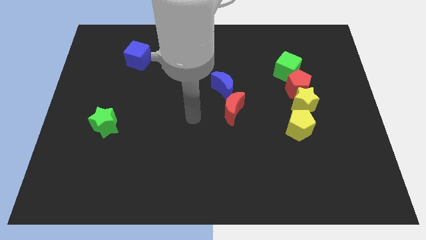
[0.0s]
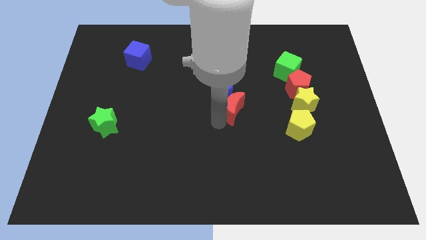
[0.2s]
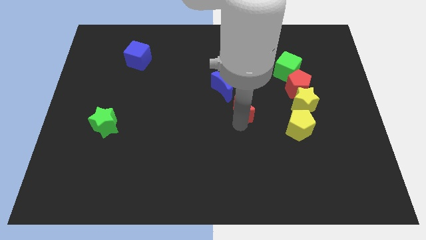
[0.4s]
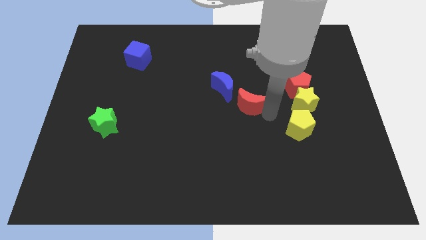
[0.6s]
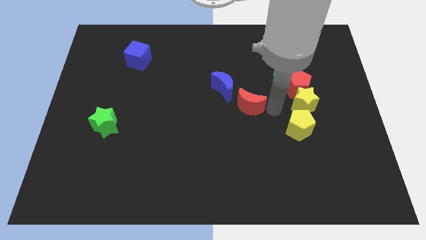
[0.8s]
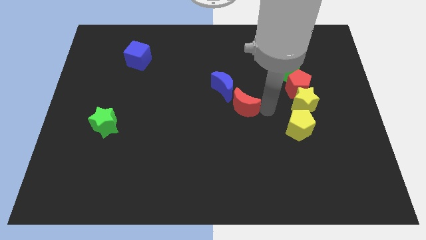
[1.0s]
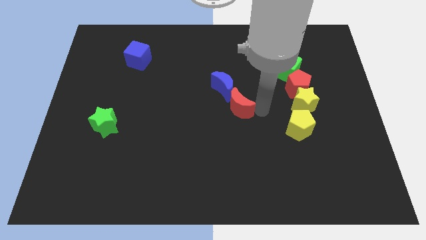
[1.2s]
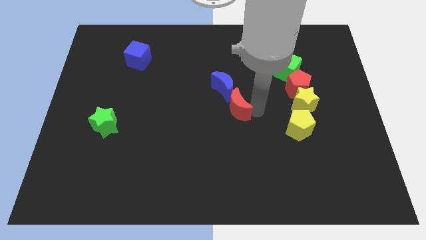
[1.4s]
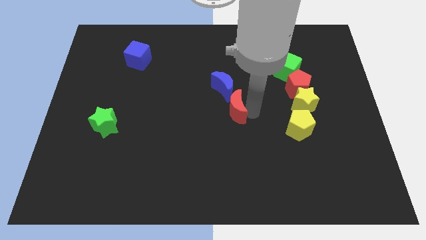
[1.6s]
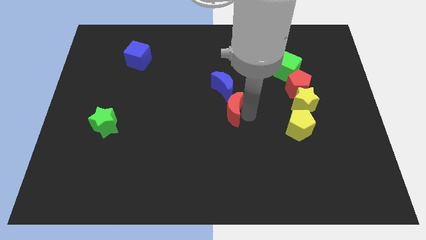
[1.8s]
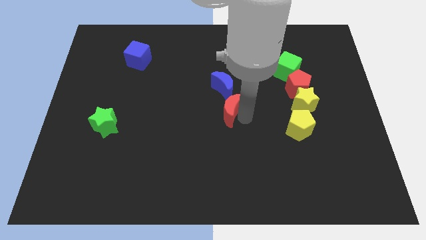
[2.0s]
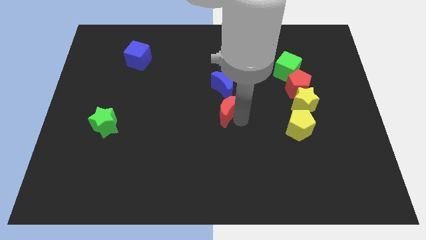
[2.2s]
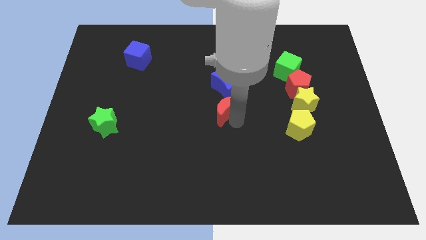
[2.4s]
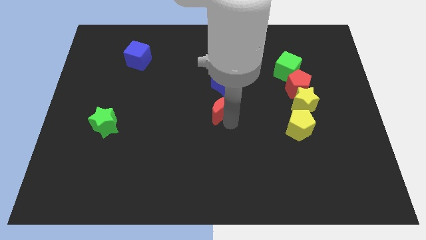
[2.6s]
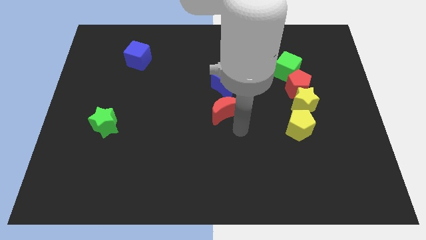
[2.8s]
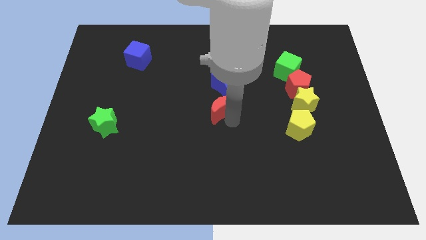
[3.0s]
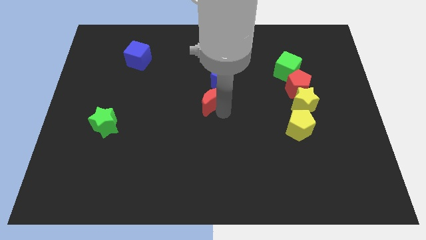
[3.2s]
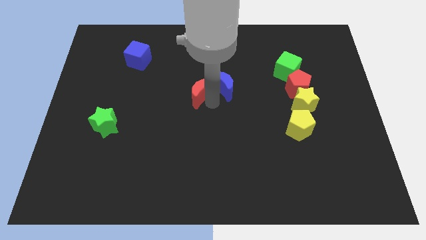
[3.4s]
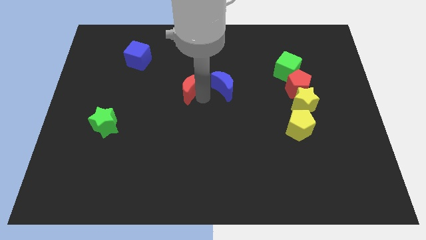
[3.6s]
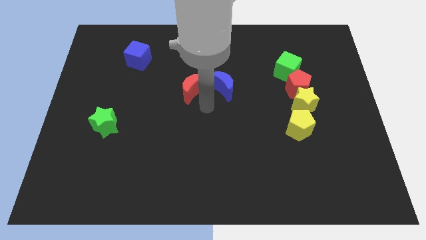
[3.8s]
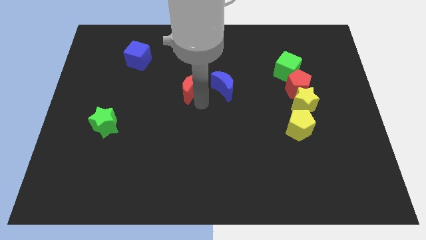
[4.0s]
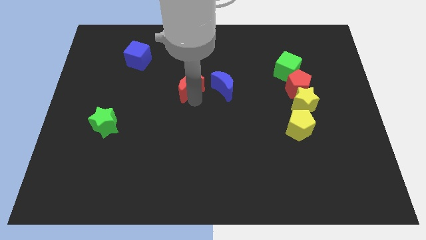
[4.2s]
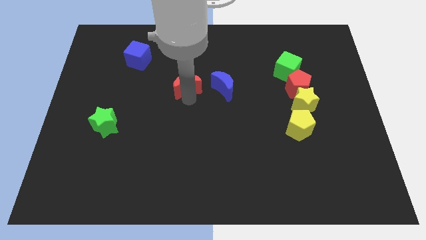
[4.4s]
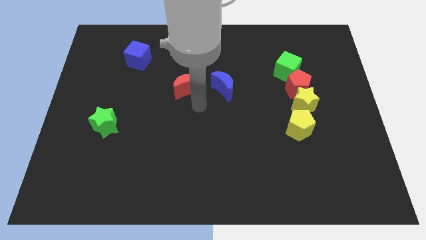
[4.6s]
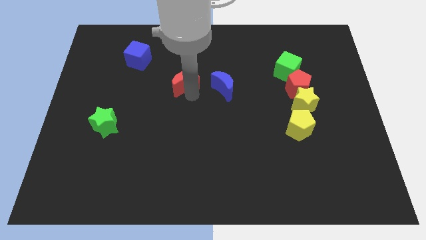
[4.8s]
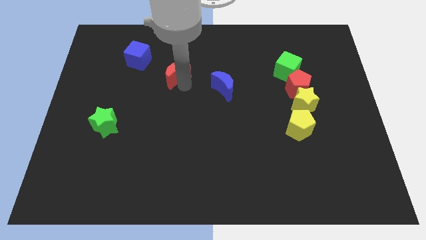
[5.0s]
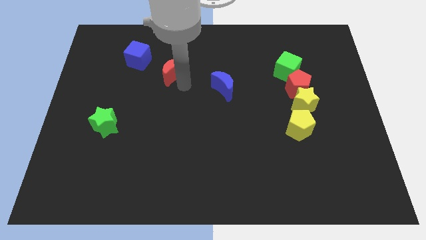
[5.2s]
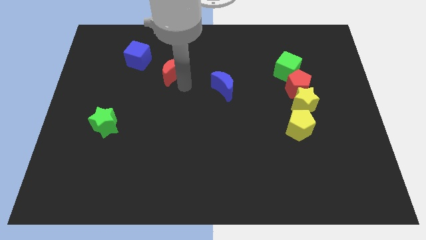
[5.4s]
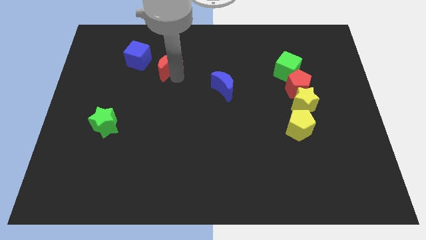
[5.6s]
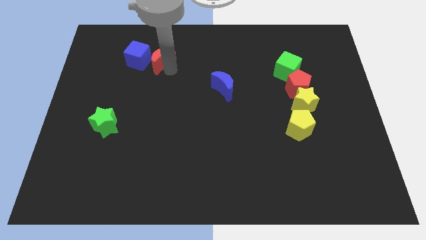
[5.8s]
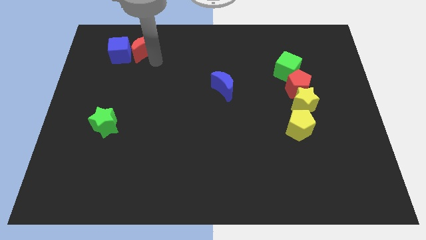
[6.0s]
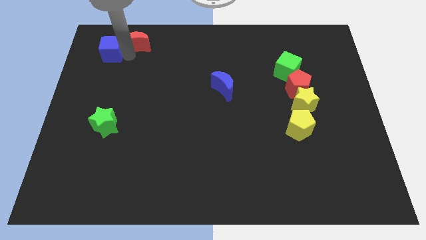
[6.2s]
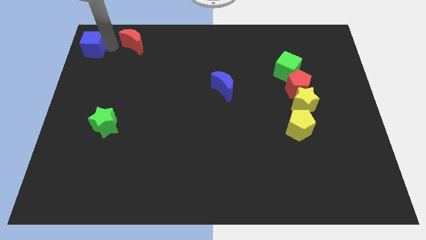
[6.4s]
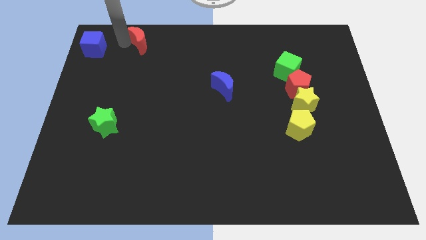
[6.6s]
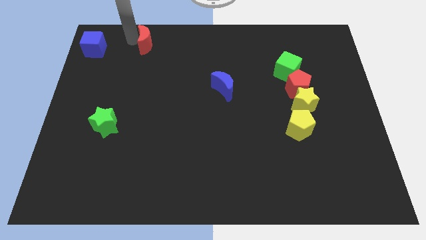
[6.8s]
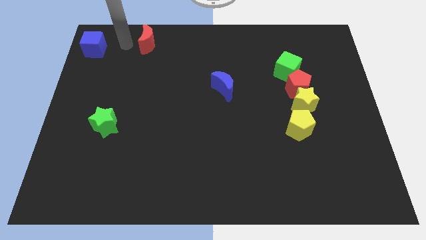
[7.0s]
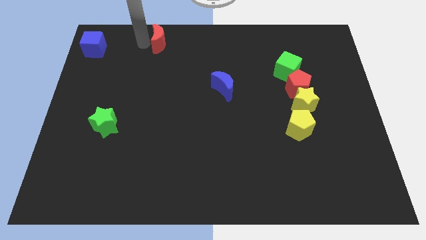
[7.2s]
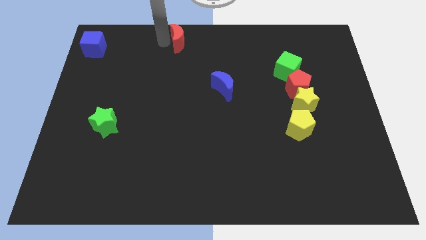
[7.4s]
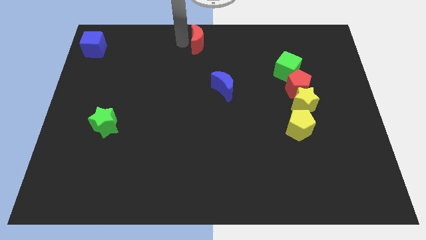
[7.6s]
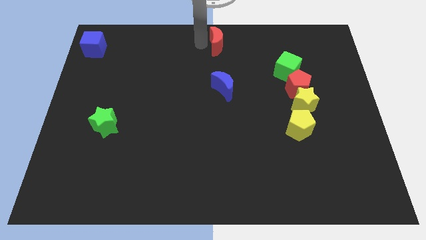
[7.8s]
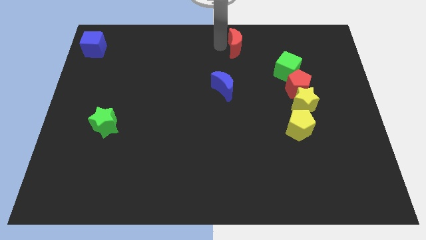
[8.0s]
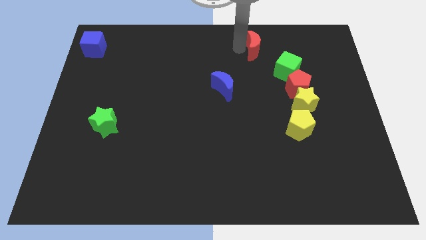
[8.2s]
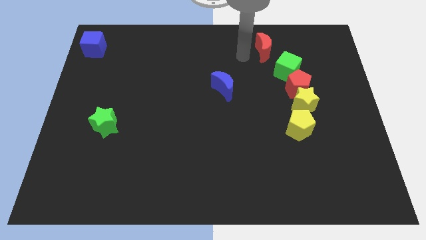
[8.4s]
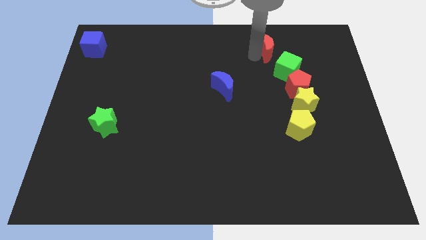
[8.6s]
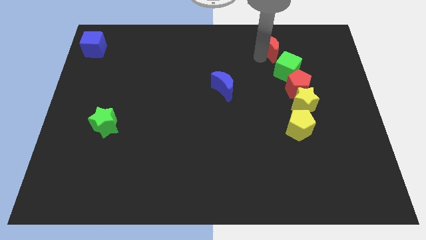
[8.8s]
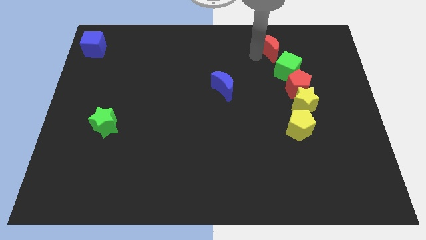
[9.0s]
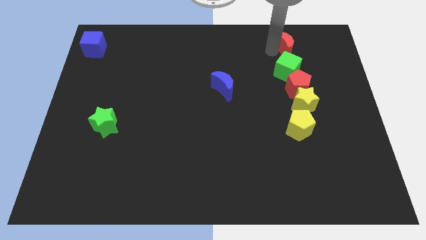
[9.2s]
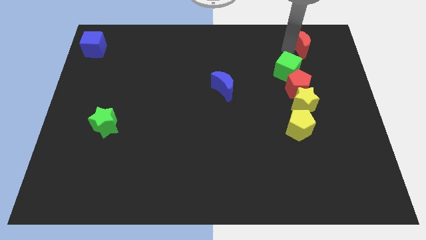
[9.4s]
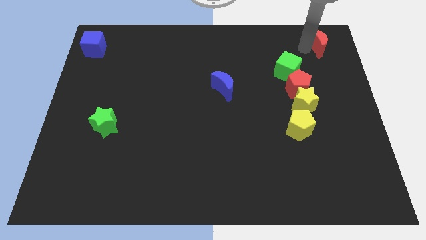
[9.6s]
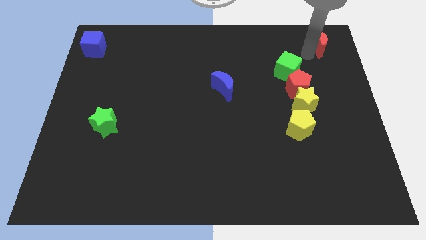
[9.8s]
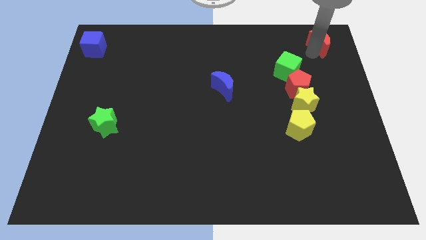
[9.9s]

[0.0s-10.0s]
put the red moon to the top right corner

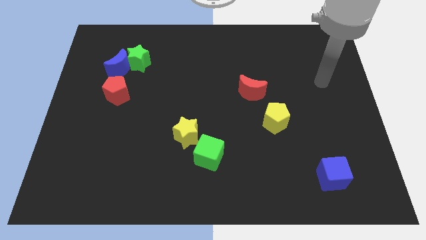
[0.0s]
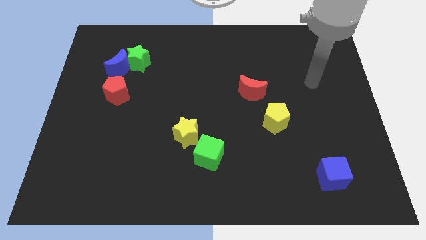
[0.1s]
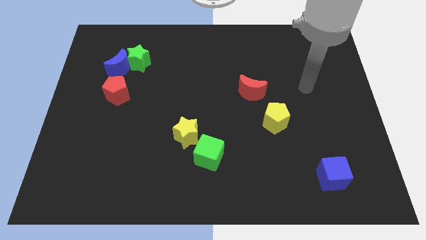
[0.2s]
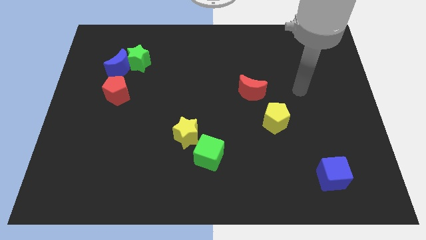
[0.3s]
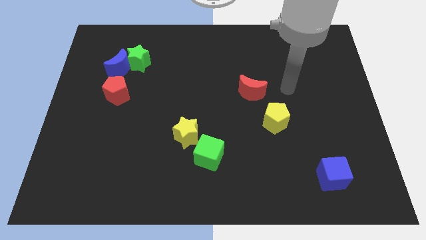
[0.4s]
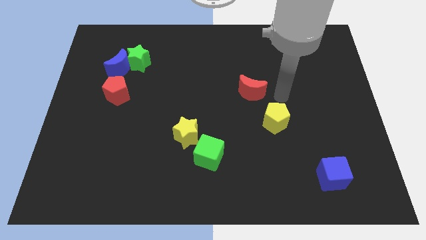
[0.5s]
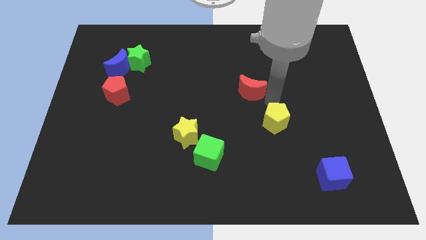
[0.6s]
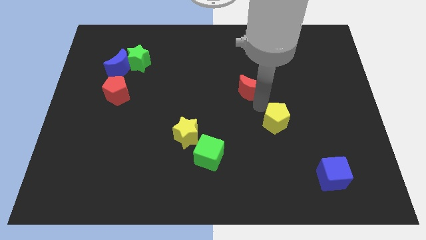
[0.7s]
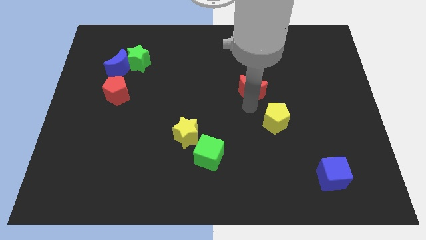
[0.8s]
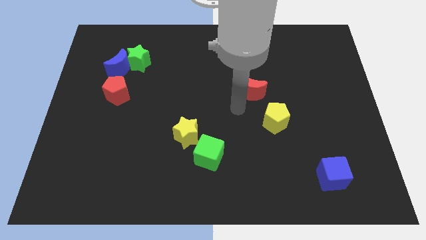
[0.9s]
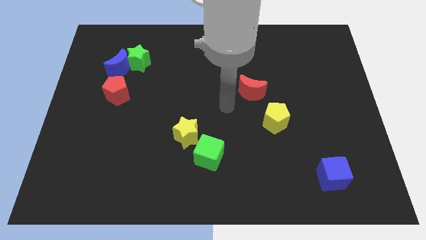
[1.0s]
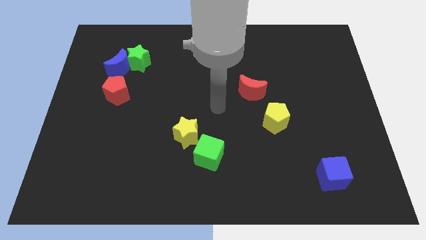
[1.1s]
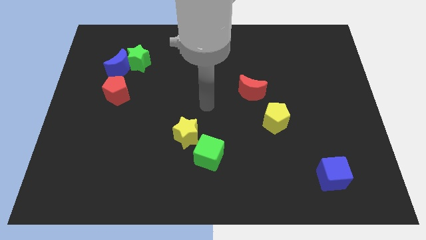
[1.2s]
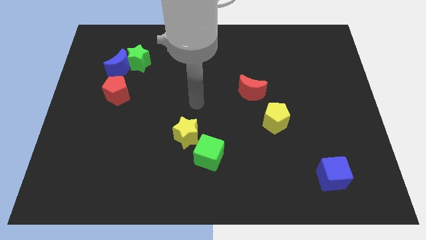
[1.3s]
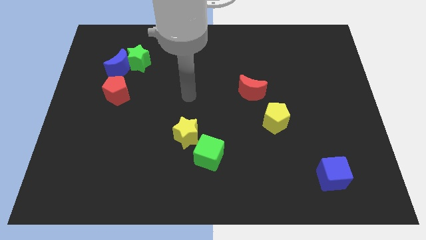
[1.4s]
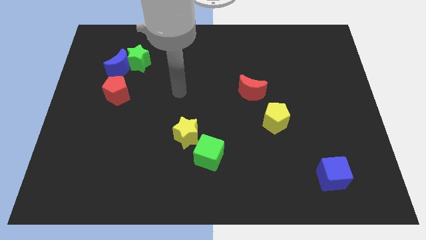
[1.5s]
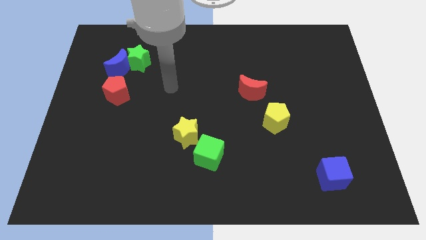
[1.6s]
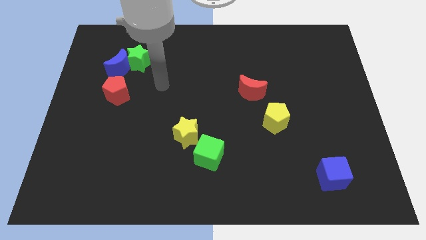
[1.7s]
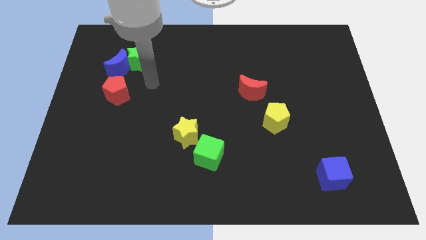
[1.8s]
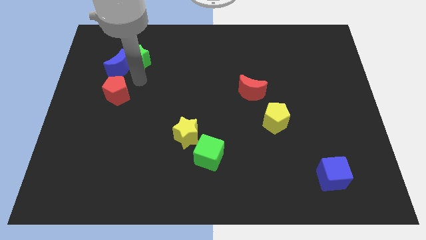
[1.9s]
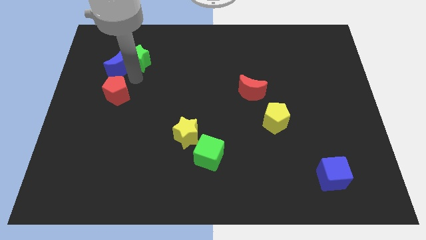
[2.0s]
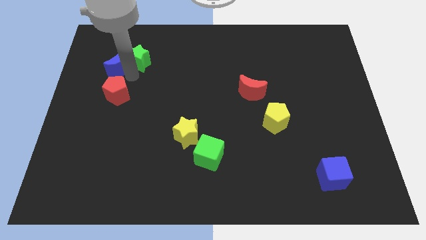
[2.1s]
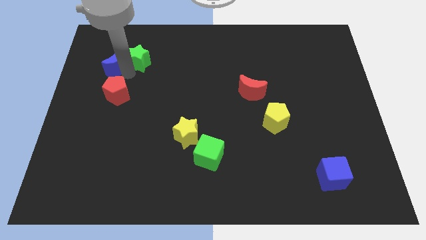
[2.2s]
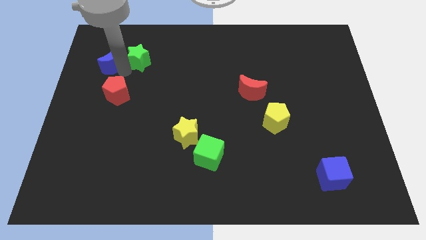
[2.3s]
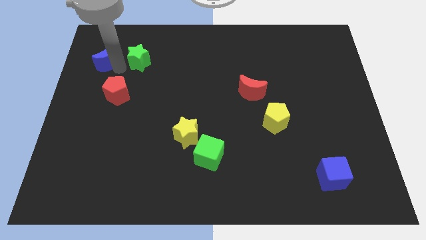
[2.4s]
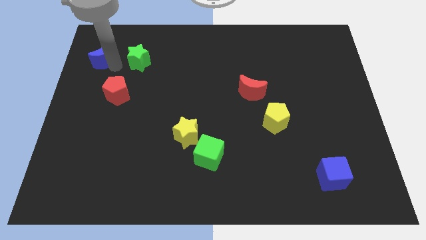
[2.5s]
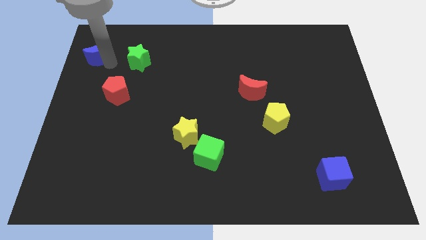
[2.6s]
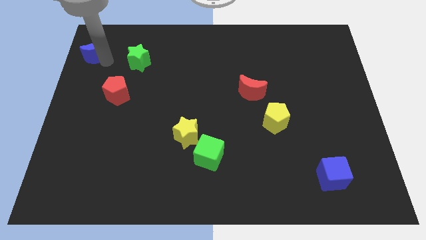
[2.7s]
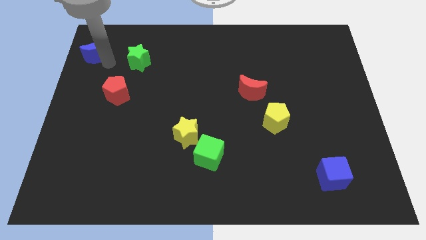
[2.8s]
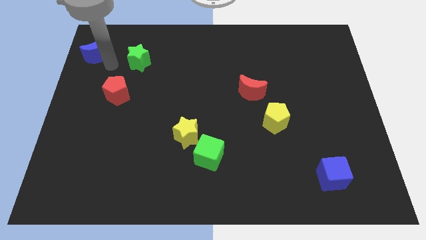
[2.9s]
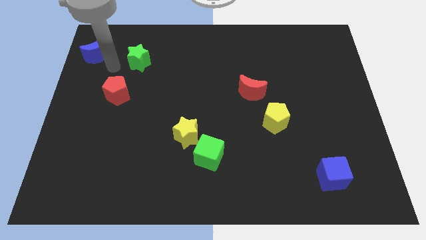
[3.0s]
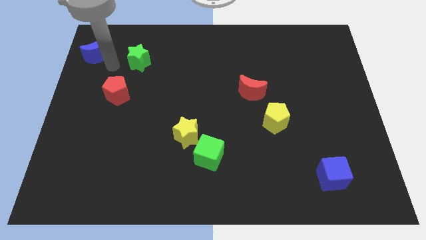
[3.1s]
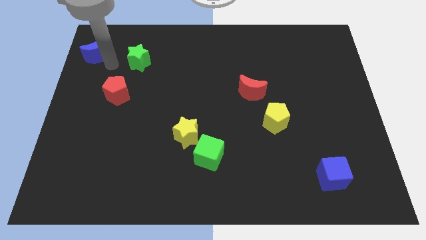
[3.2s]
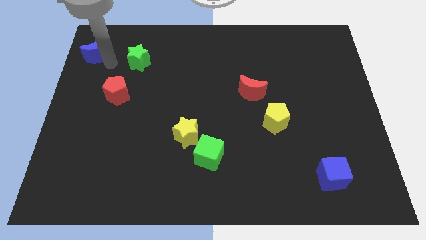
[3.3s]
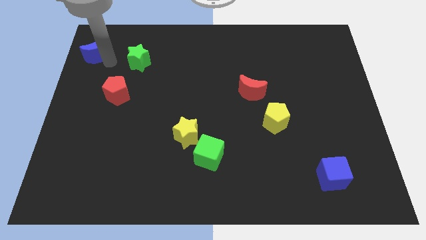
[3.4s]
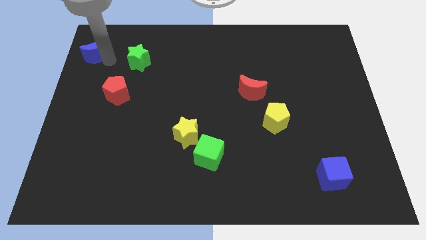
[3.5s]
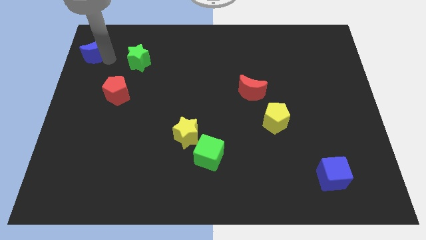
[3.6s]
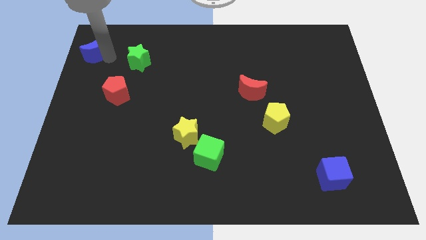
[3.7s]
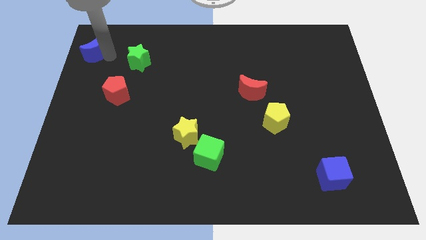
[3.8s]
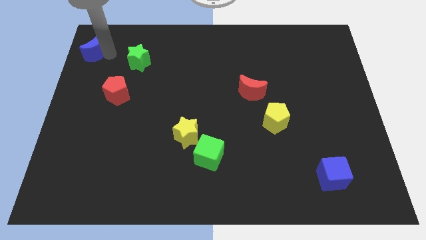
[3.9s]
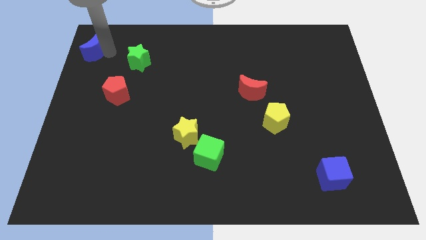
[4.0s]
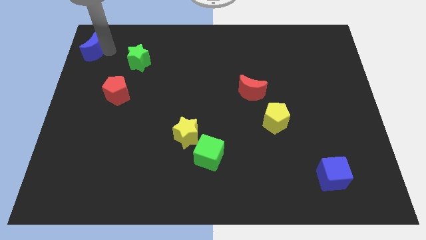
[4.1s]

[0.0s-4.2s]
move the blue moon to the top left corner
